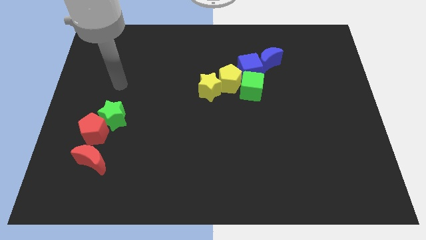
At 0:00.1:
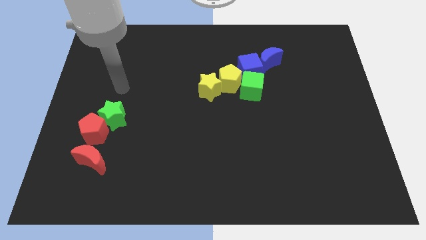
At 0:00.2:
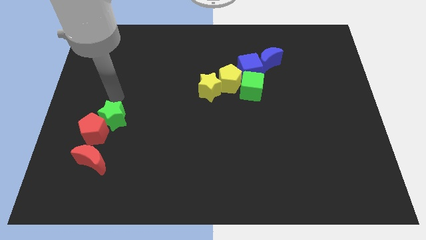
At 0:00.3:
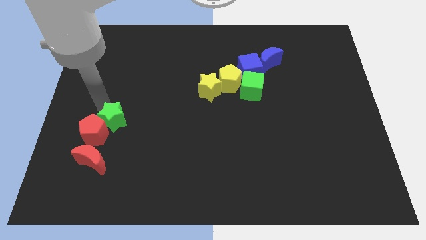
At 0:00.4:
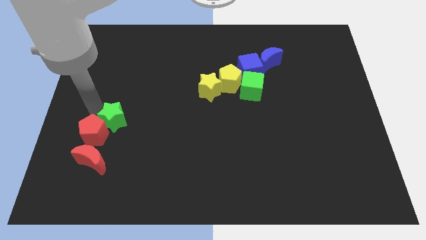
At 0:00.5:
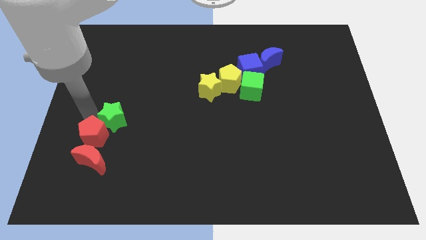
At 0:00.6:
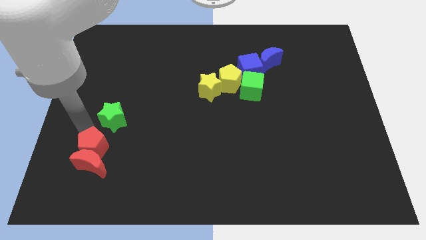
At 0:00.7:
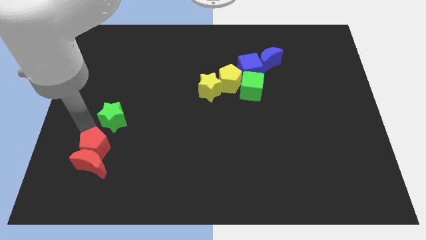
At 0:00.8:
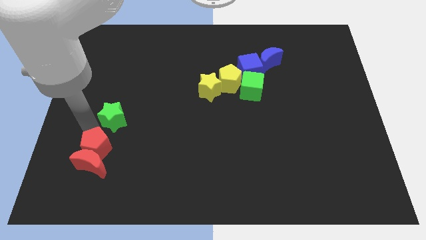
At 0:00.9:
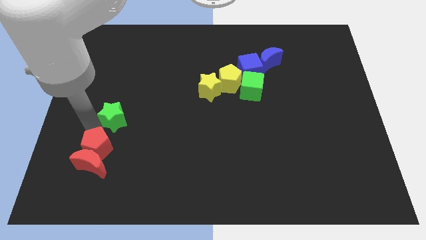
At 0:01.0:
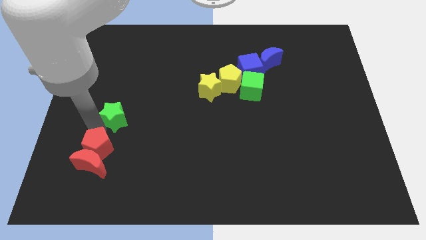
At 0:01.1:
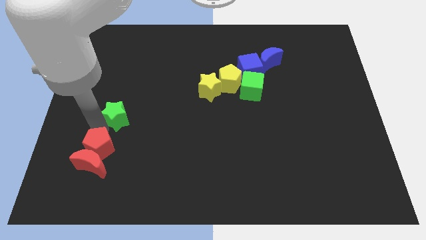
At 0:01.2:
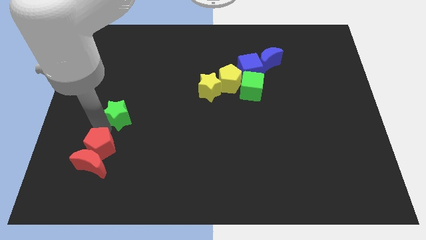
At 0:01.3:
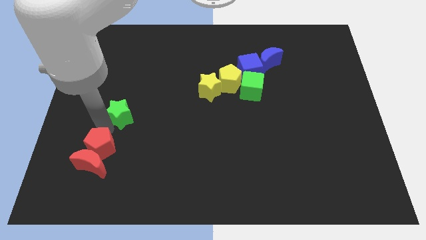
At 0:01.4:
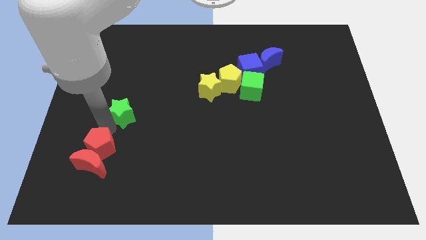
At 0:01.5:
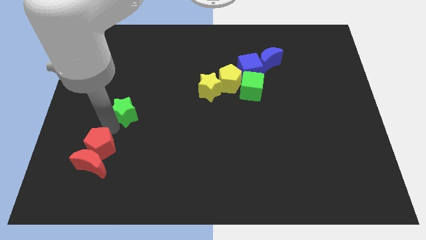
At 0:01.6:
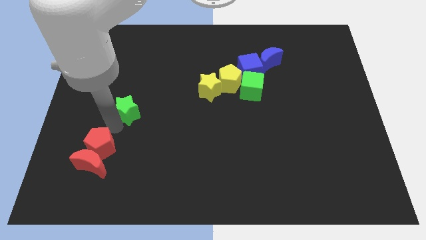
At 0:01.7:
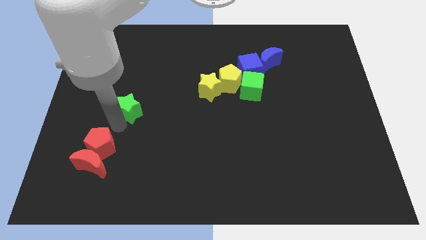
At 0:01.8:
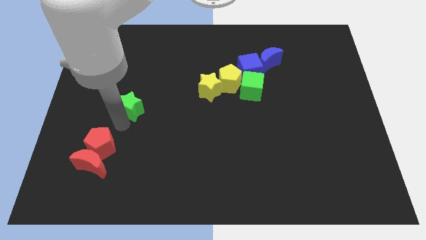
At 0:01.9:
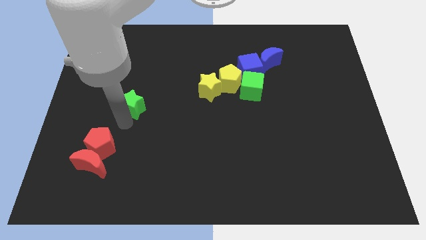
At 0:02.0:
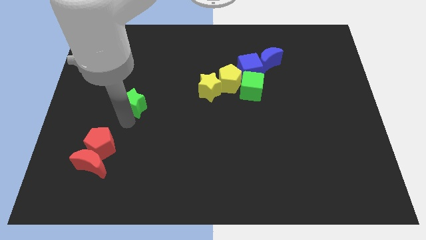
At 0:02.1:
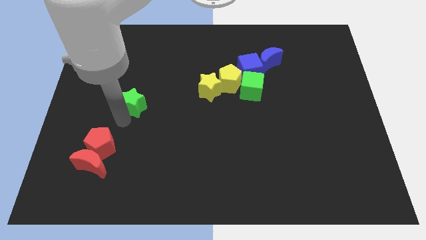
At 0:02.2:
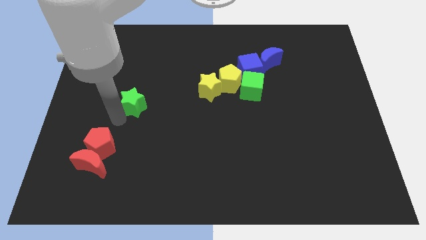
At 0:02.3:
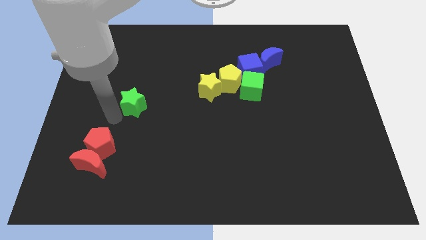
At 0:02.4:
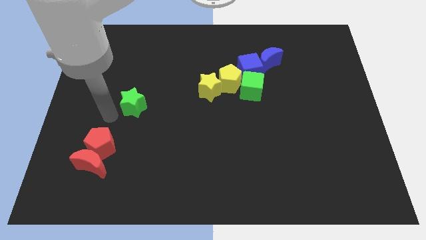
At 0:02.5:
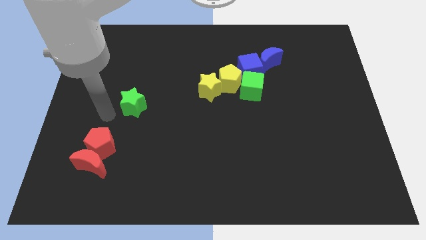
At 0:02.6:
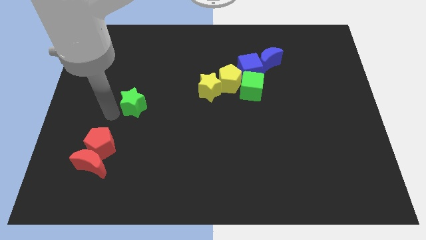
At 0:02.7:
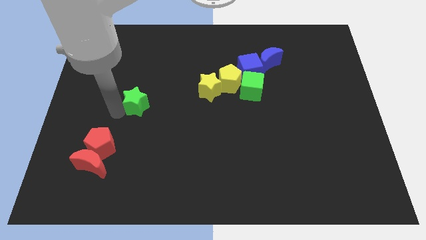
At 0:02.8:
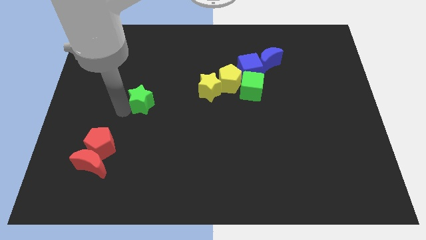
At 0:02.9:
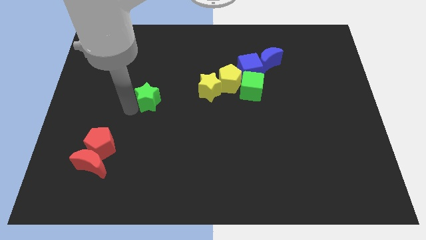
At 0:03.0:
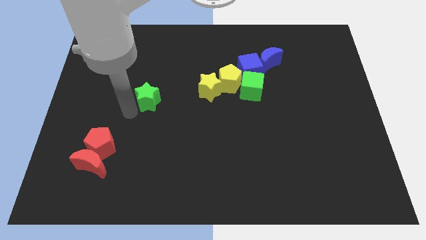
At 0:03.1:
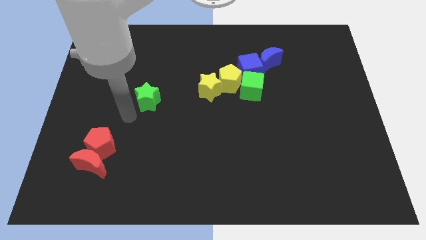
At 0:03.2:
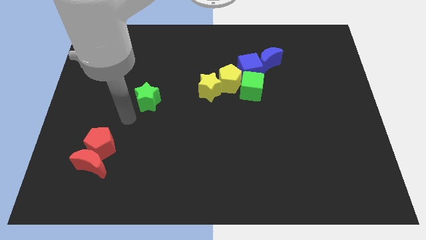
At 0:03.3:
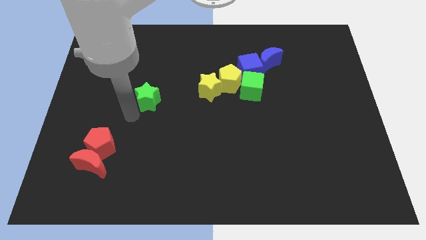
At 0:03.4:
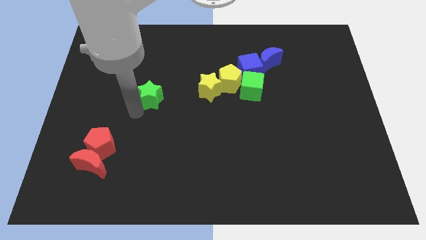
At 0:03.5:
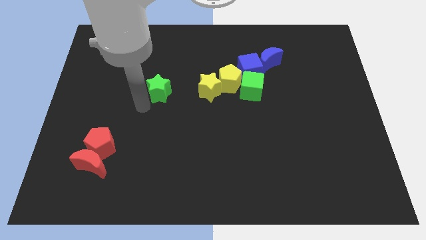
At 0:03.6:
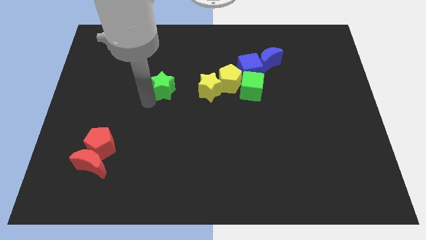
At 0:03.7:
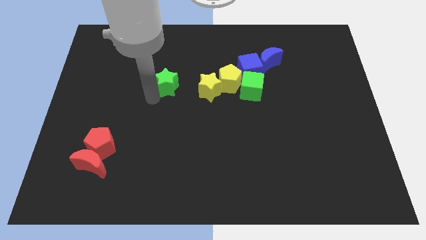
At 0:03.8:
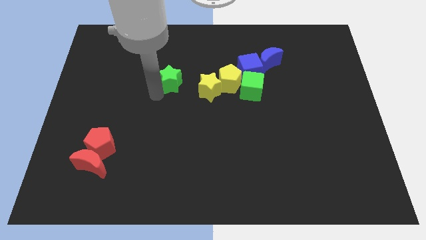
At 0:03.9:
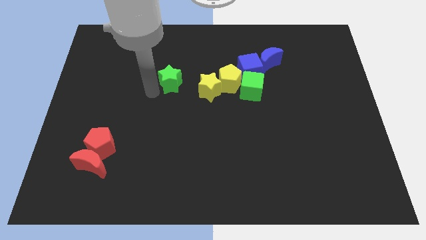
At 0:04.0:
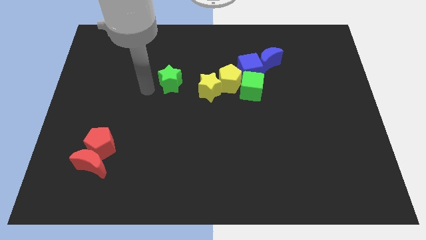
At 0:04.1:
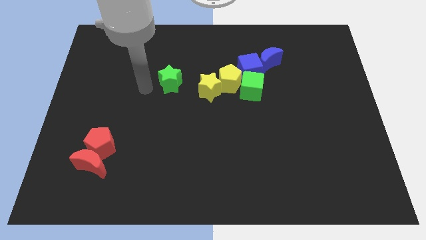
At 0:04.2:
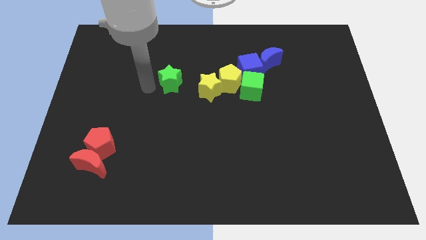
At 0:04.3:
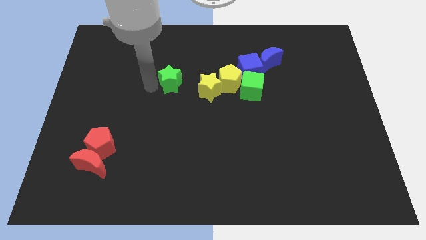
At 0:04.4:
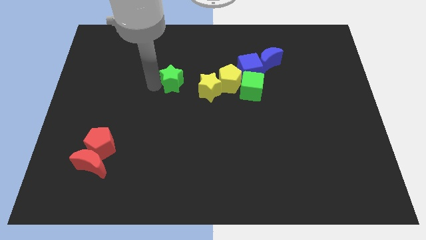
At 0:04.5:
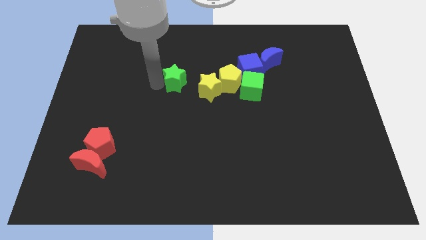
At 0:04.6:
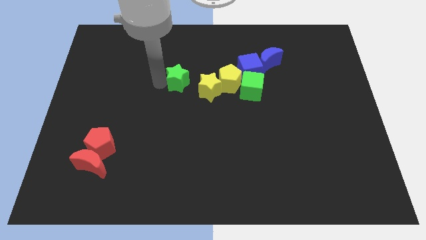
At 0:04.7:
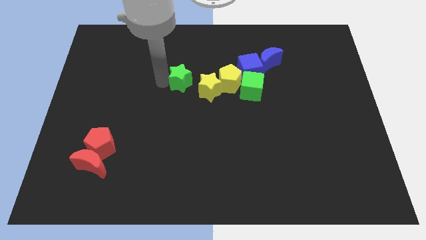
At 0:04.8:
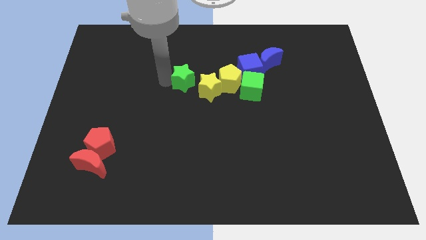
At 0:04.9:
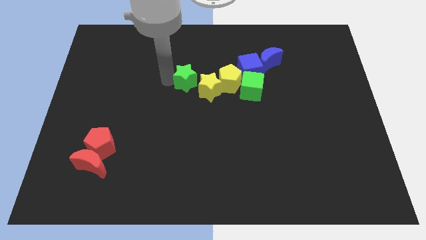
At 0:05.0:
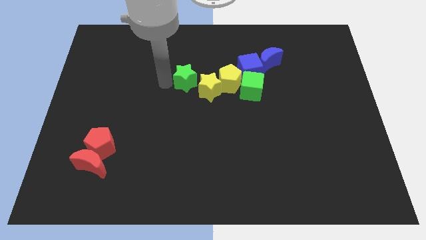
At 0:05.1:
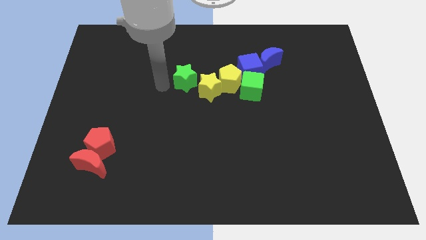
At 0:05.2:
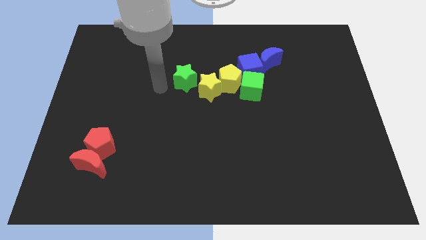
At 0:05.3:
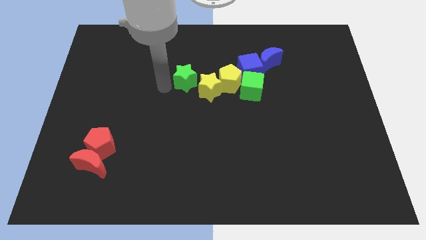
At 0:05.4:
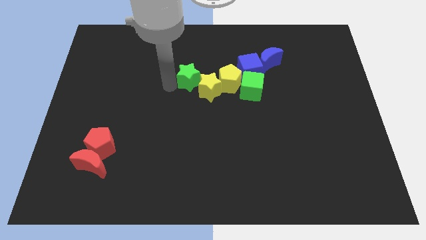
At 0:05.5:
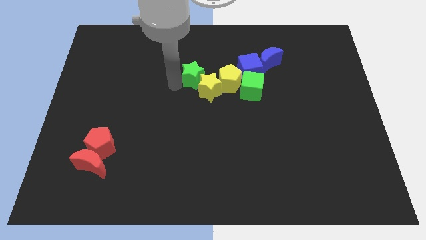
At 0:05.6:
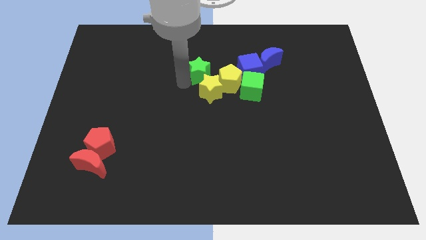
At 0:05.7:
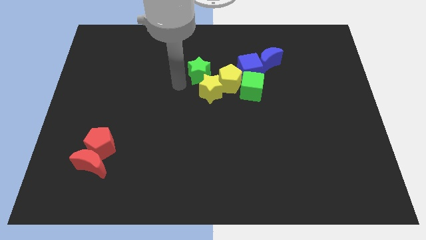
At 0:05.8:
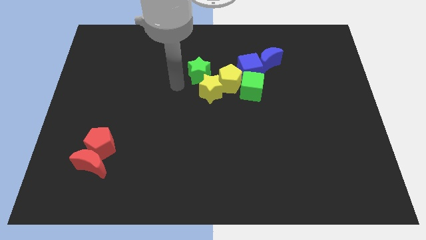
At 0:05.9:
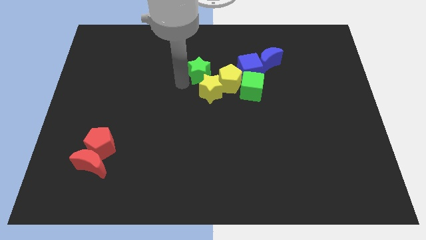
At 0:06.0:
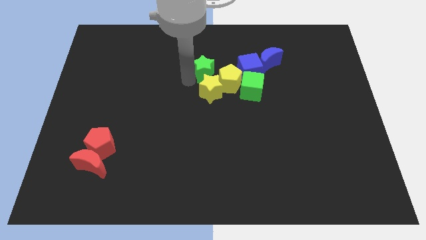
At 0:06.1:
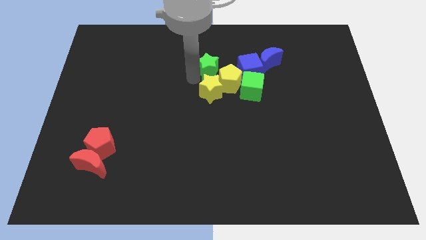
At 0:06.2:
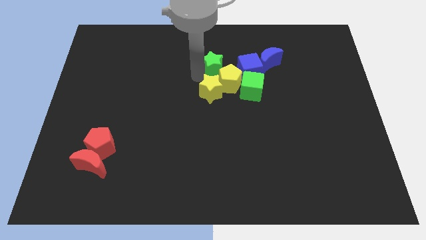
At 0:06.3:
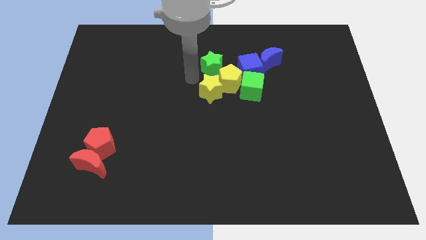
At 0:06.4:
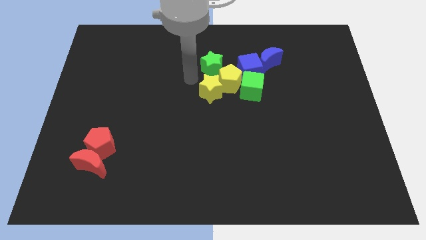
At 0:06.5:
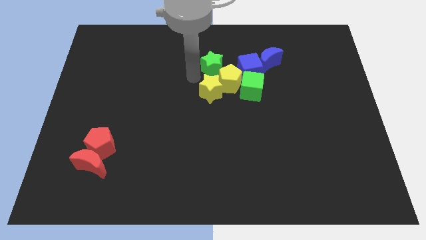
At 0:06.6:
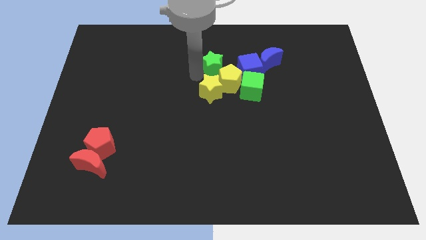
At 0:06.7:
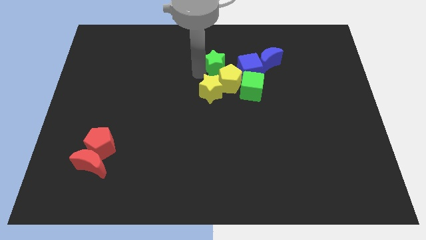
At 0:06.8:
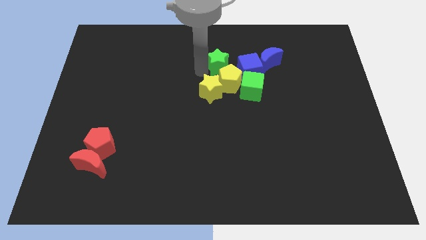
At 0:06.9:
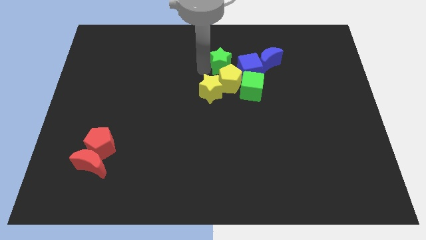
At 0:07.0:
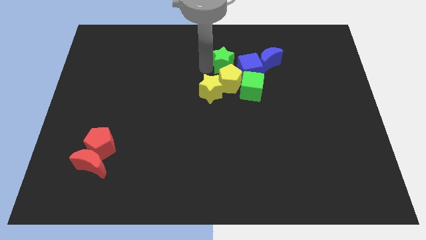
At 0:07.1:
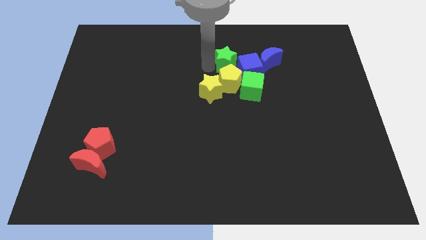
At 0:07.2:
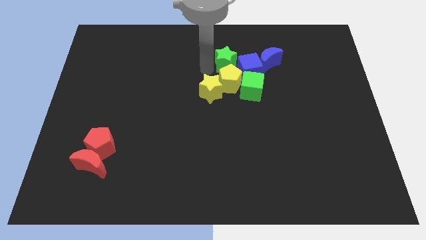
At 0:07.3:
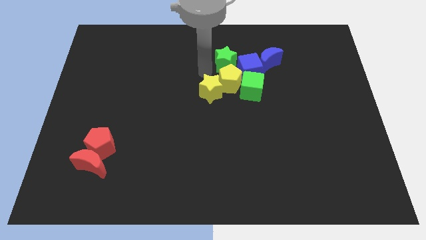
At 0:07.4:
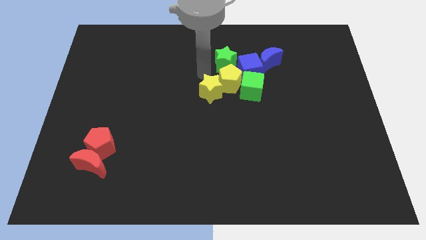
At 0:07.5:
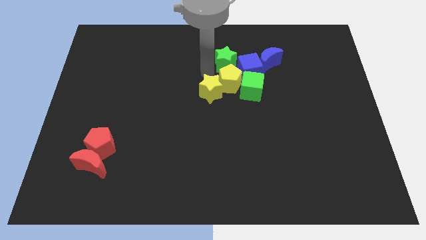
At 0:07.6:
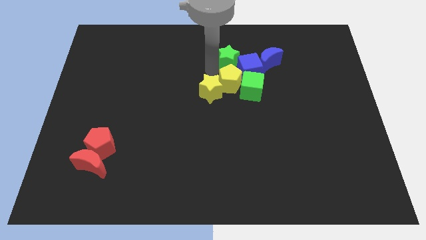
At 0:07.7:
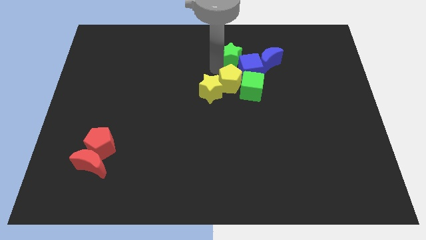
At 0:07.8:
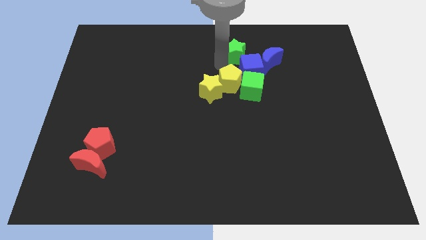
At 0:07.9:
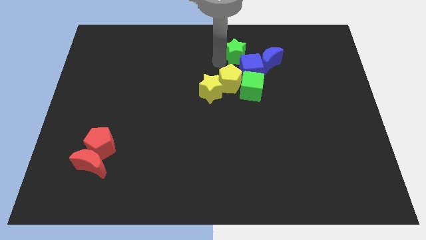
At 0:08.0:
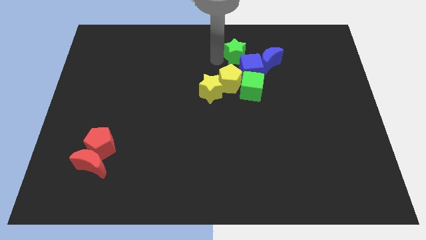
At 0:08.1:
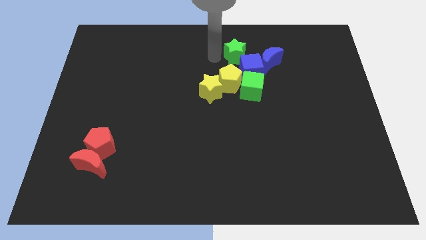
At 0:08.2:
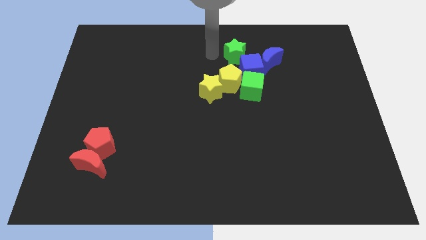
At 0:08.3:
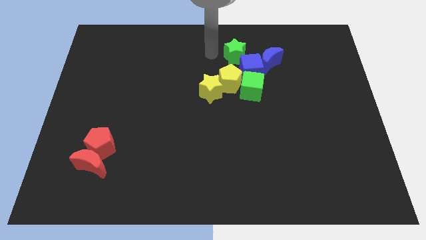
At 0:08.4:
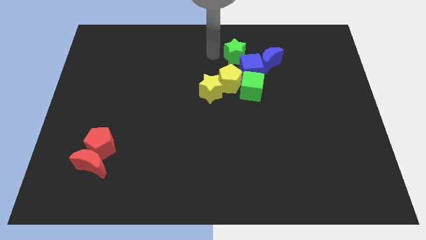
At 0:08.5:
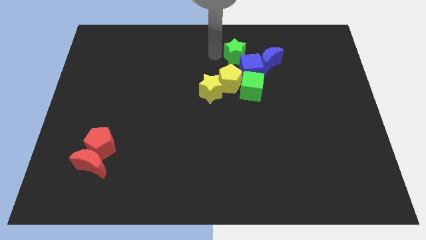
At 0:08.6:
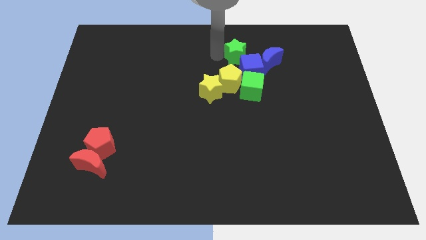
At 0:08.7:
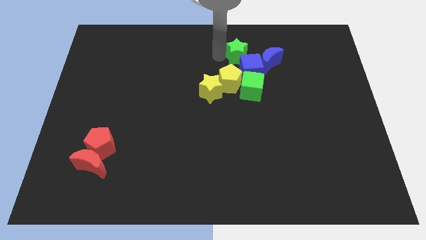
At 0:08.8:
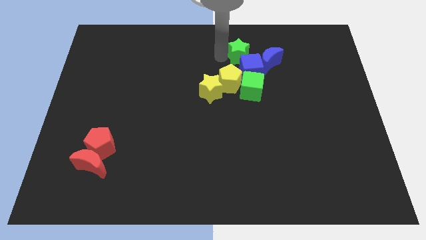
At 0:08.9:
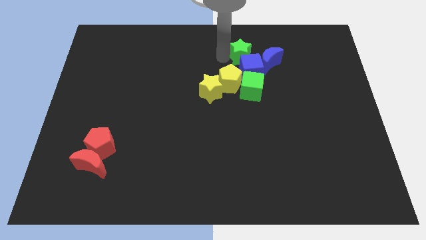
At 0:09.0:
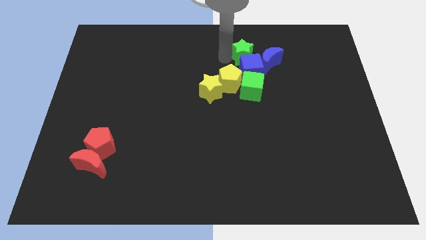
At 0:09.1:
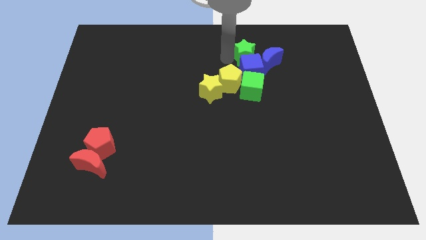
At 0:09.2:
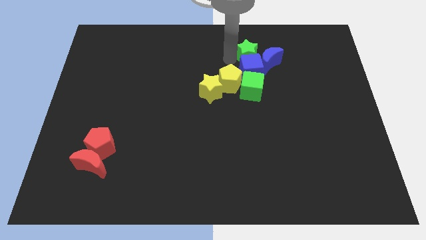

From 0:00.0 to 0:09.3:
slide the green star next to the blue moon
